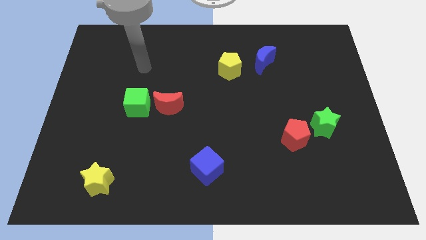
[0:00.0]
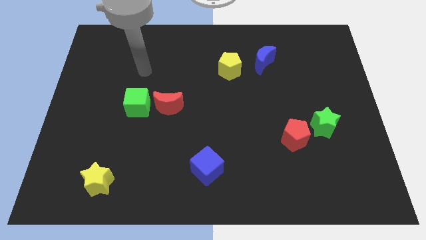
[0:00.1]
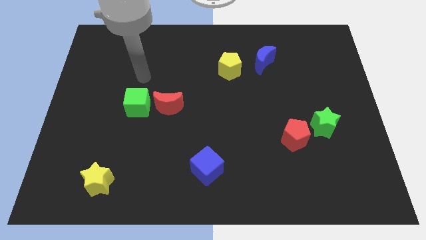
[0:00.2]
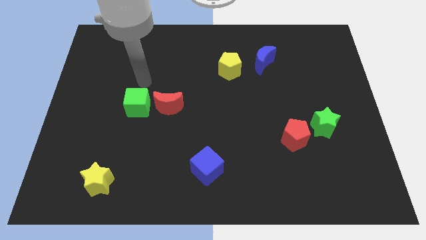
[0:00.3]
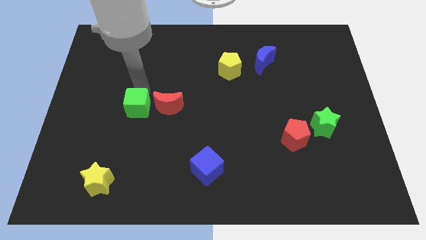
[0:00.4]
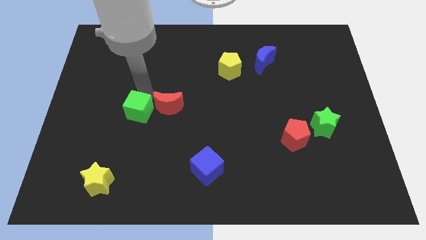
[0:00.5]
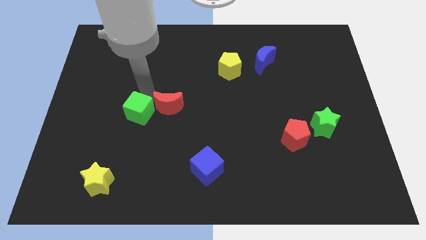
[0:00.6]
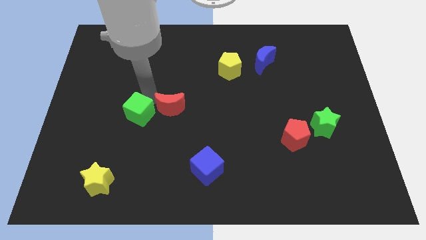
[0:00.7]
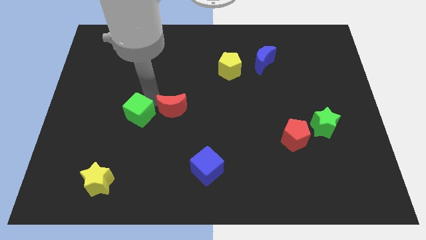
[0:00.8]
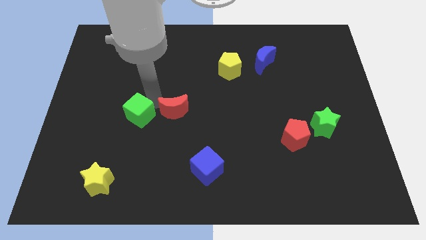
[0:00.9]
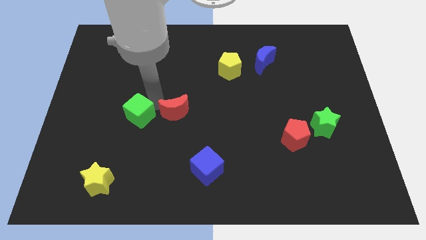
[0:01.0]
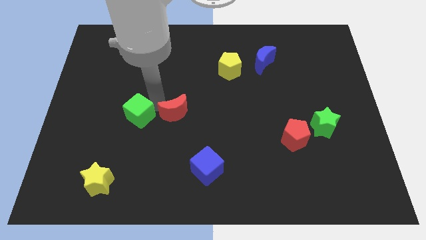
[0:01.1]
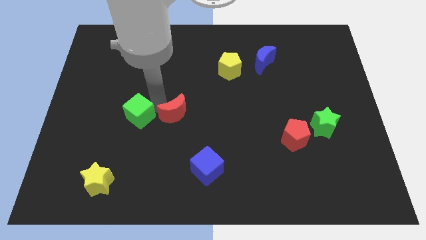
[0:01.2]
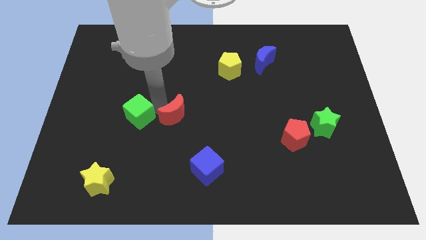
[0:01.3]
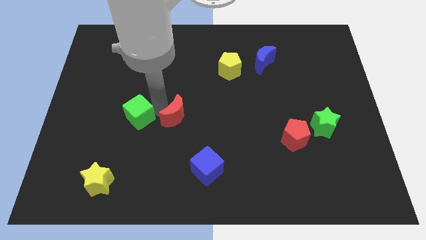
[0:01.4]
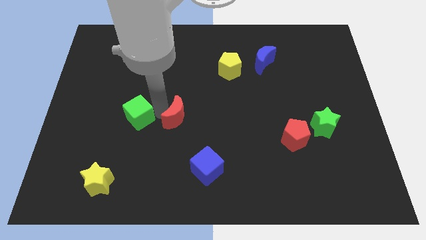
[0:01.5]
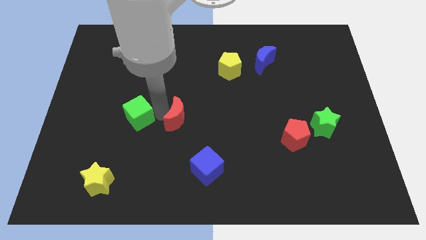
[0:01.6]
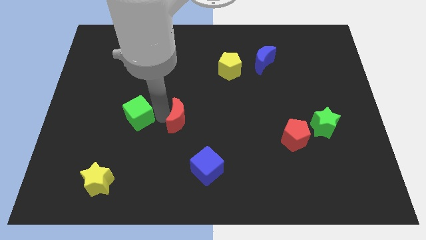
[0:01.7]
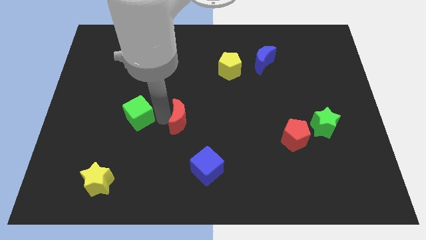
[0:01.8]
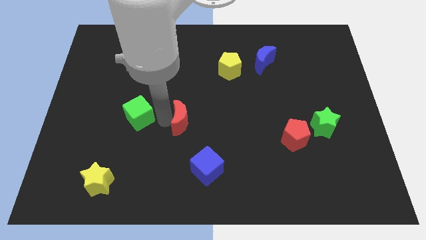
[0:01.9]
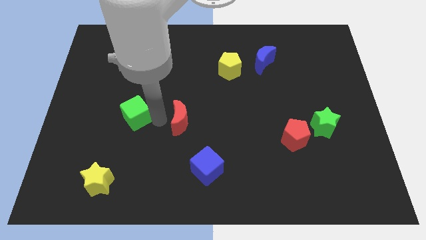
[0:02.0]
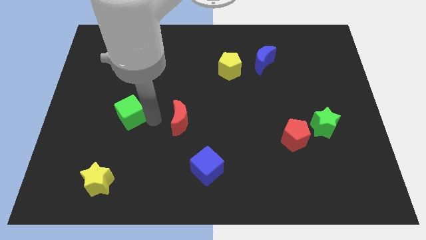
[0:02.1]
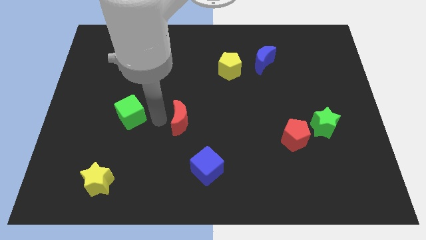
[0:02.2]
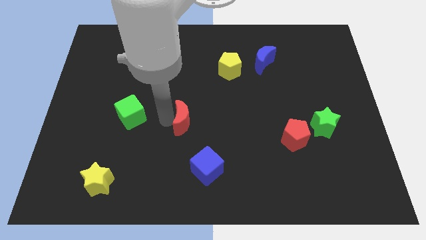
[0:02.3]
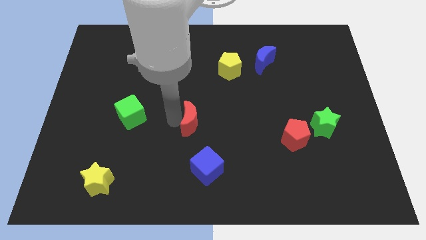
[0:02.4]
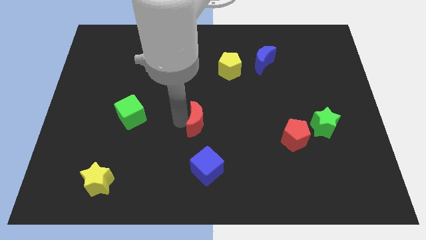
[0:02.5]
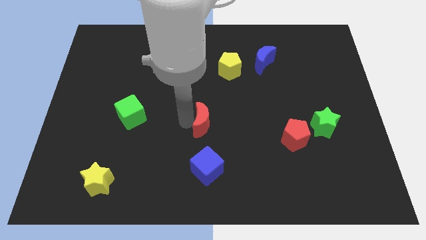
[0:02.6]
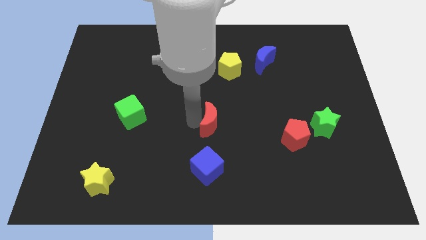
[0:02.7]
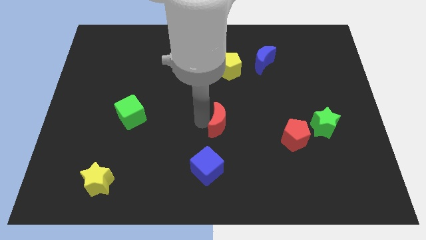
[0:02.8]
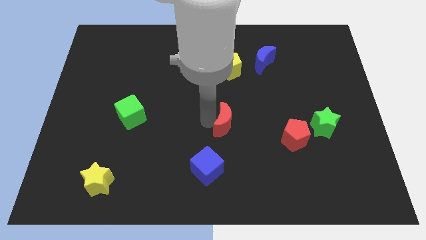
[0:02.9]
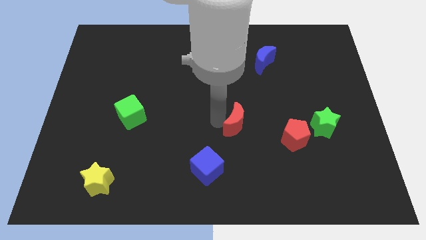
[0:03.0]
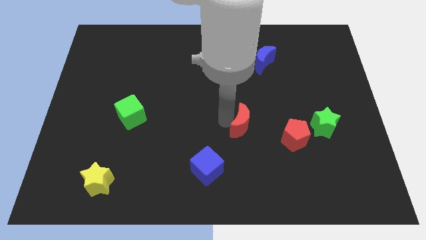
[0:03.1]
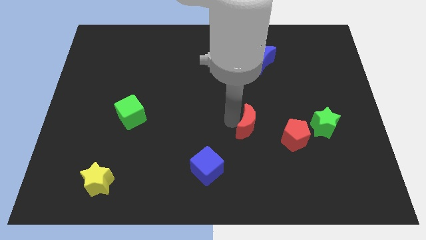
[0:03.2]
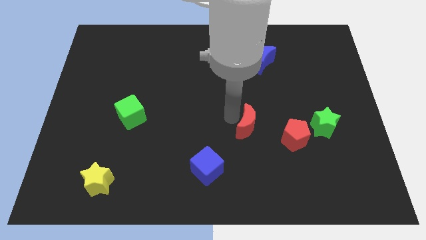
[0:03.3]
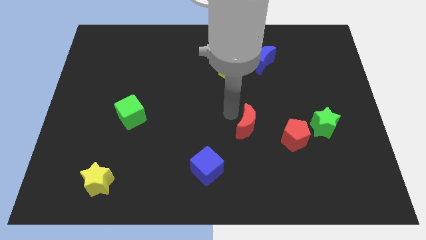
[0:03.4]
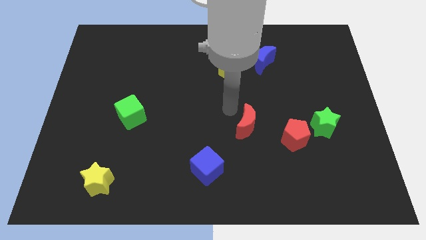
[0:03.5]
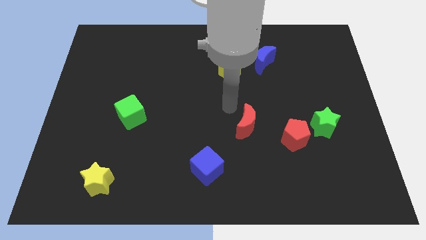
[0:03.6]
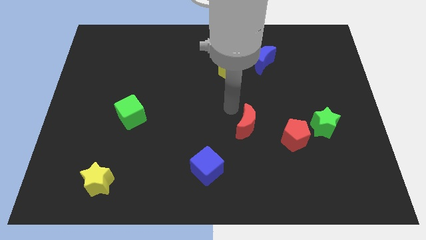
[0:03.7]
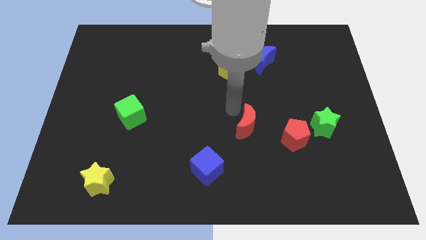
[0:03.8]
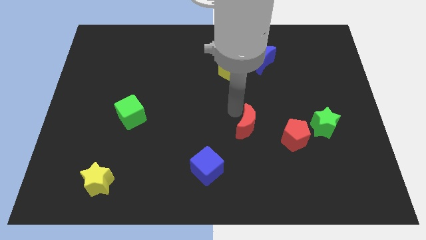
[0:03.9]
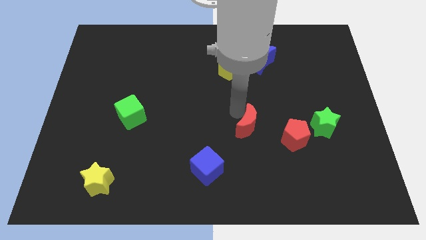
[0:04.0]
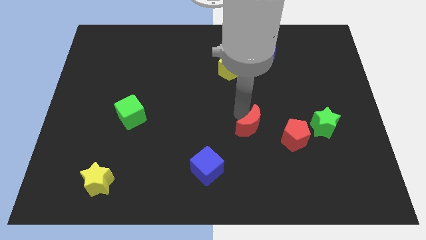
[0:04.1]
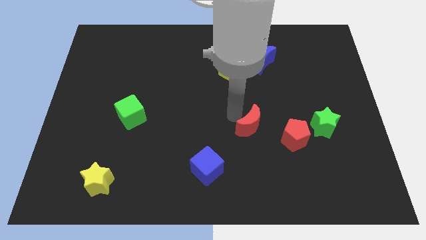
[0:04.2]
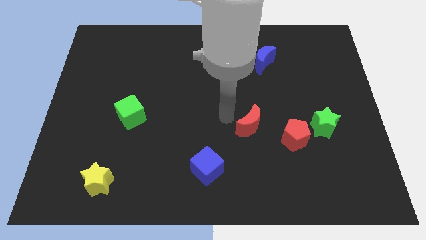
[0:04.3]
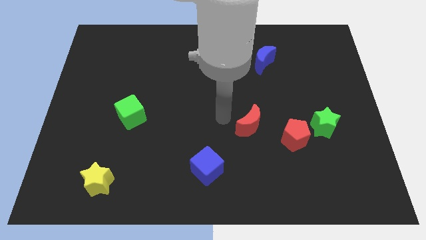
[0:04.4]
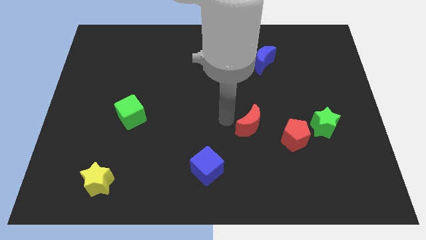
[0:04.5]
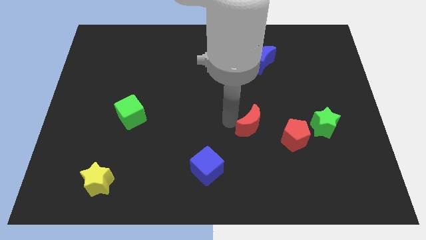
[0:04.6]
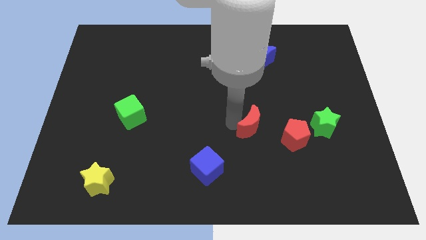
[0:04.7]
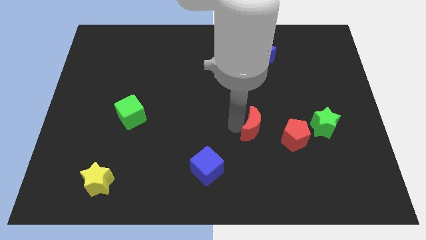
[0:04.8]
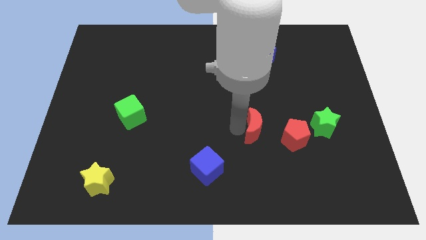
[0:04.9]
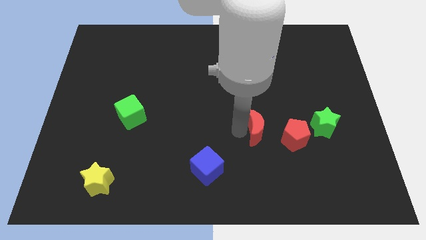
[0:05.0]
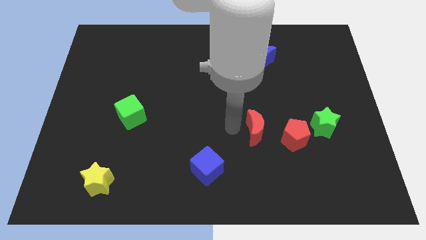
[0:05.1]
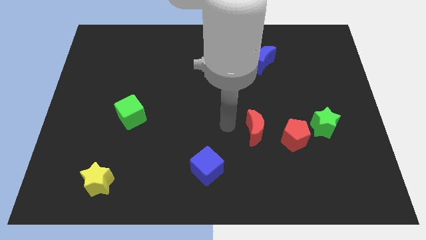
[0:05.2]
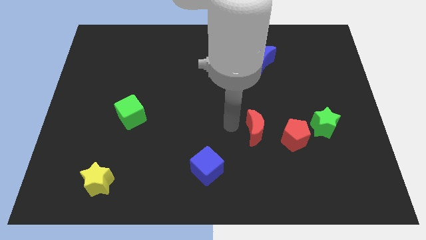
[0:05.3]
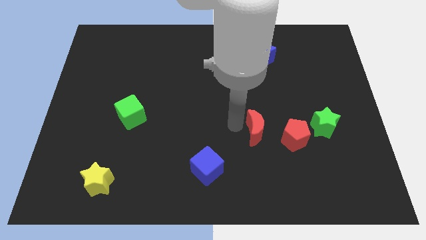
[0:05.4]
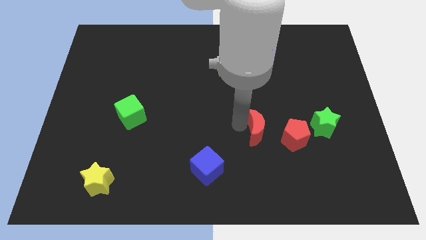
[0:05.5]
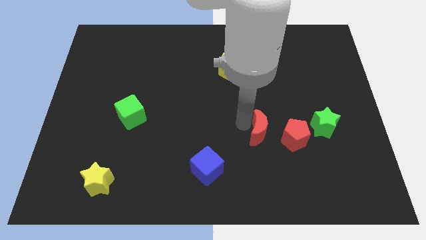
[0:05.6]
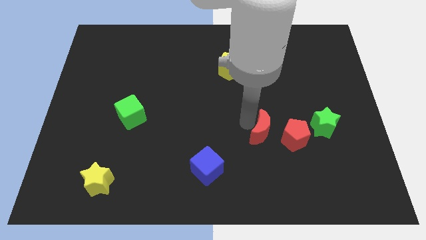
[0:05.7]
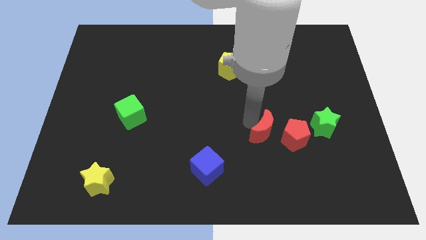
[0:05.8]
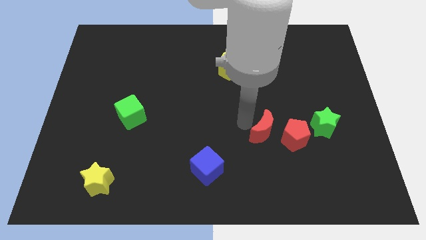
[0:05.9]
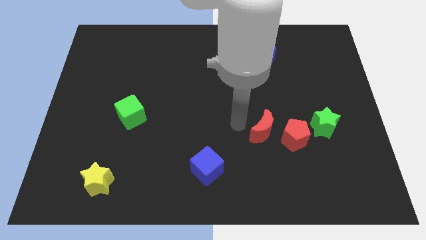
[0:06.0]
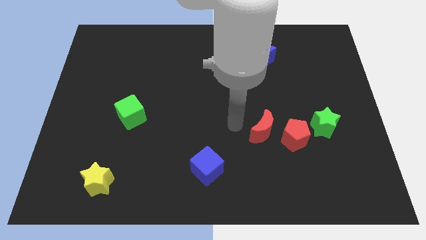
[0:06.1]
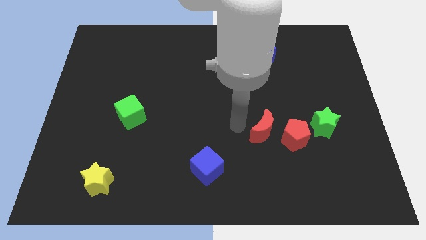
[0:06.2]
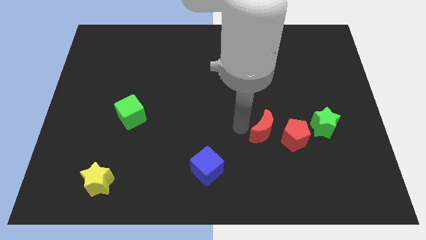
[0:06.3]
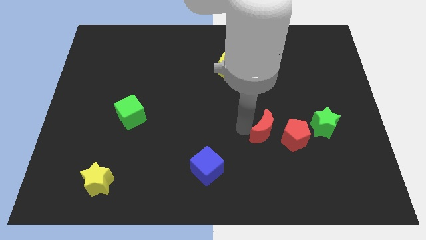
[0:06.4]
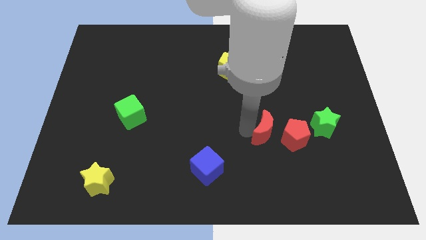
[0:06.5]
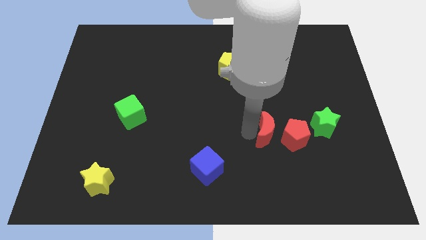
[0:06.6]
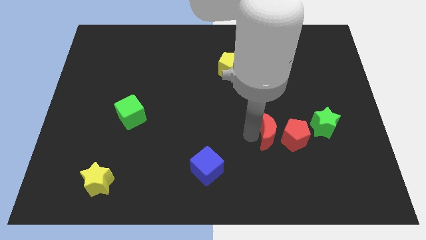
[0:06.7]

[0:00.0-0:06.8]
push the red moon towards the red pentagon

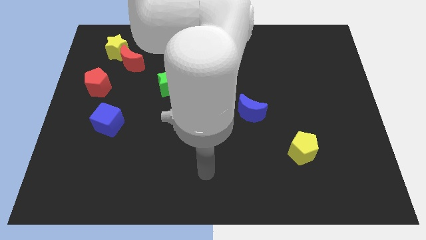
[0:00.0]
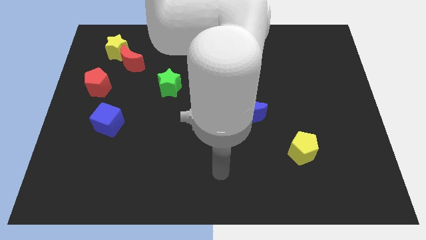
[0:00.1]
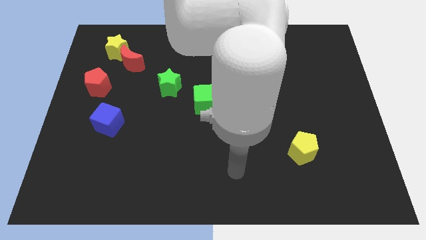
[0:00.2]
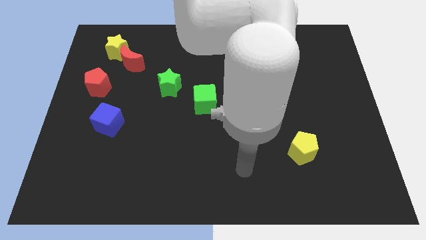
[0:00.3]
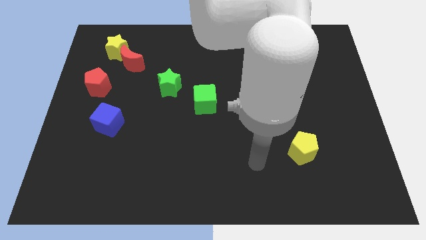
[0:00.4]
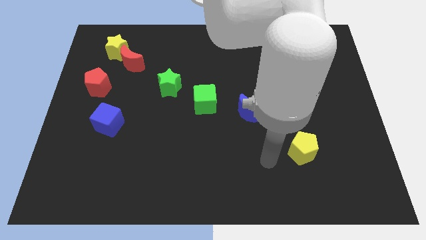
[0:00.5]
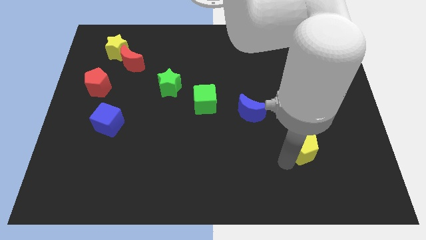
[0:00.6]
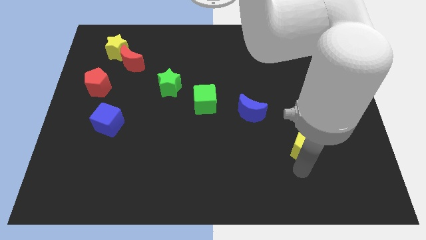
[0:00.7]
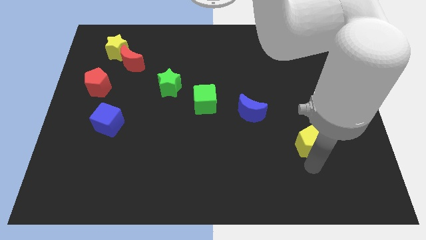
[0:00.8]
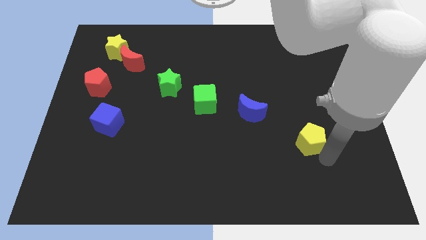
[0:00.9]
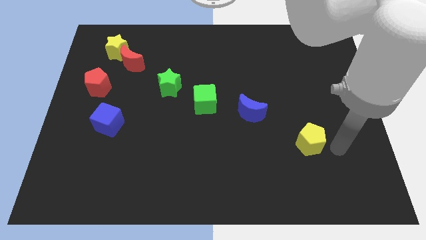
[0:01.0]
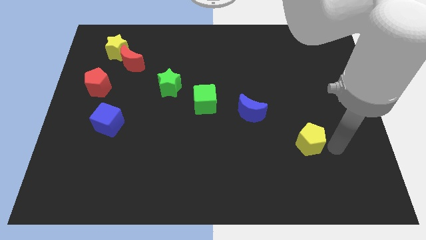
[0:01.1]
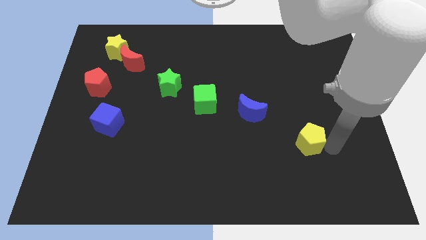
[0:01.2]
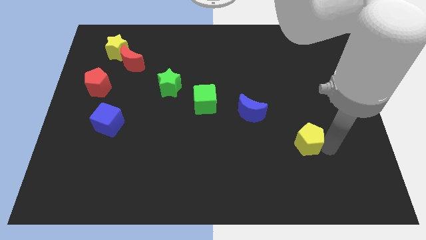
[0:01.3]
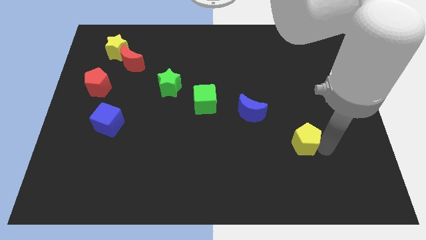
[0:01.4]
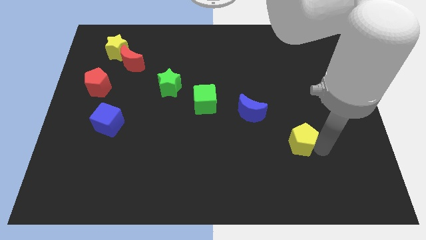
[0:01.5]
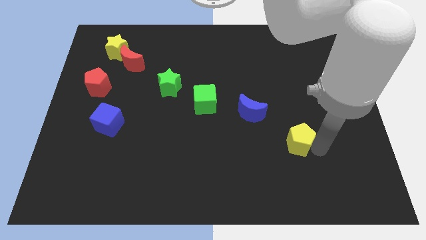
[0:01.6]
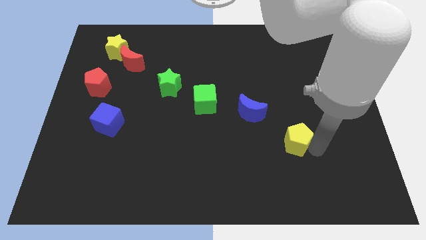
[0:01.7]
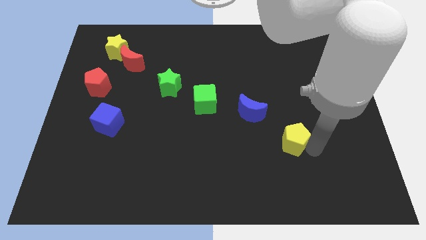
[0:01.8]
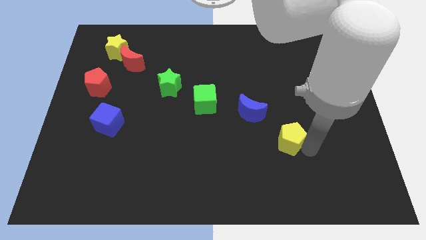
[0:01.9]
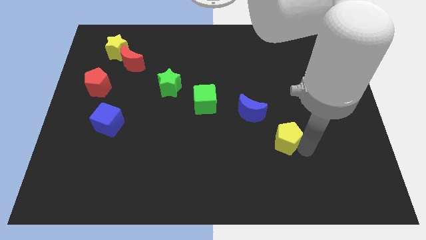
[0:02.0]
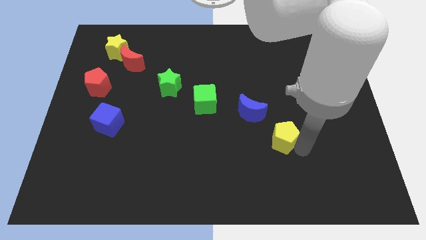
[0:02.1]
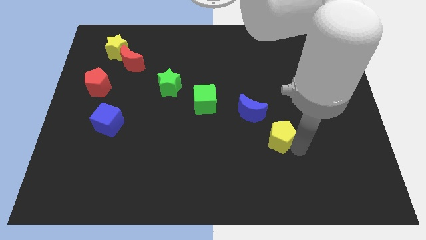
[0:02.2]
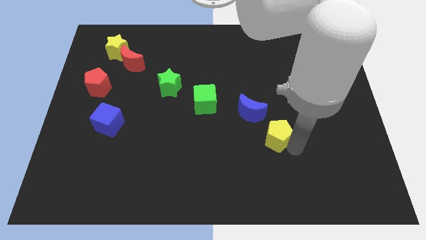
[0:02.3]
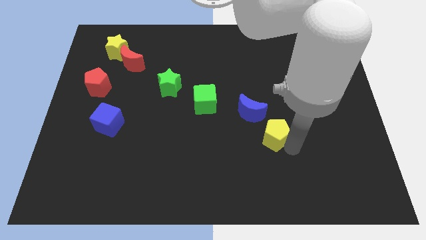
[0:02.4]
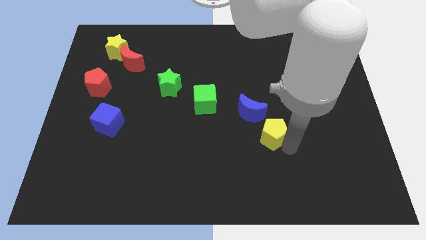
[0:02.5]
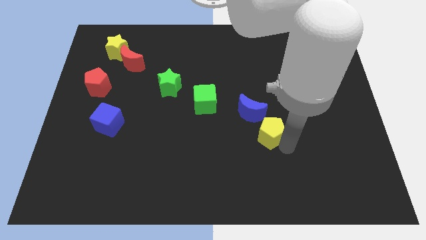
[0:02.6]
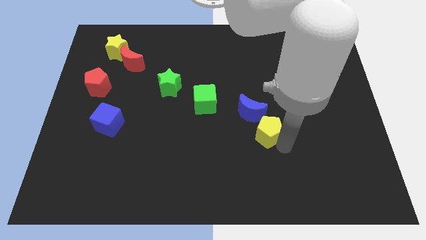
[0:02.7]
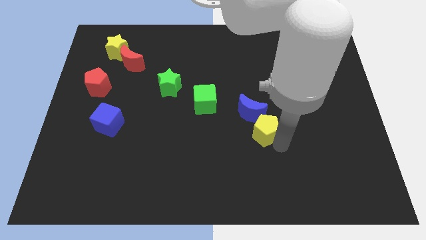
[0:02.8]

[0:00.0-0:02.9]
push the yellow pentagon close to the blue moon
